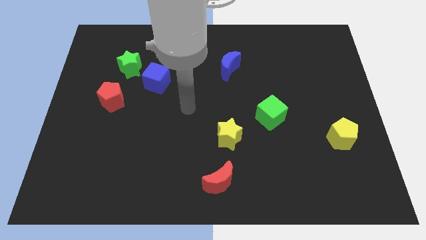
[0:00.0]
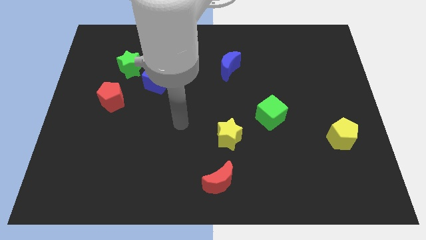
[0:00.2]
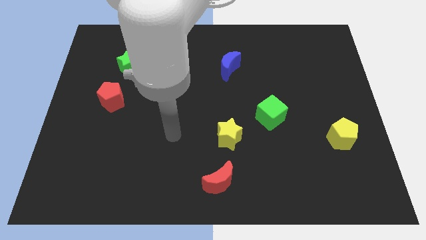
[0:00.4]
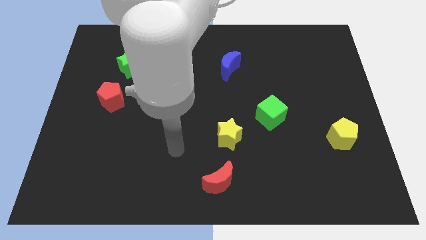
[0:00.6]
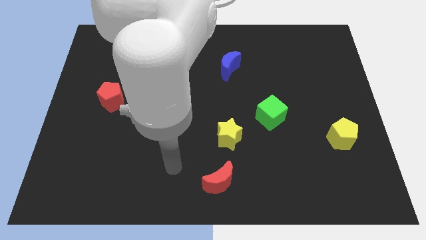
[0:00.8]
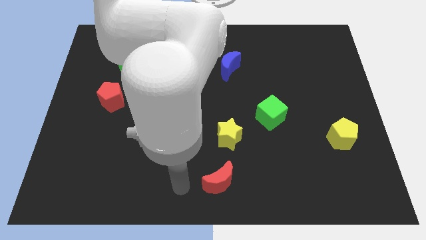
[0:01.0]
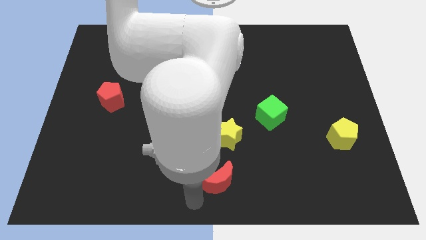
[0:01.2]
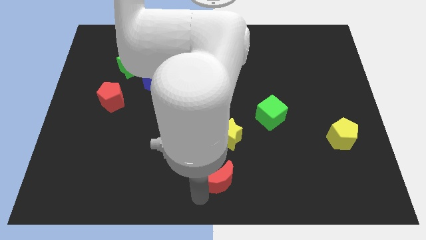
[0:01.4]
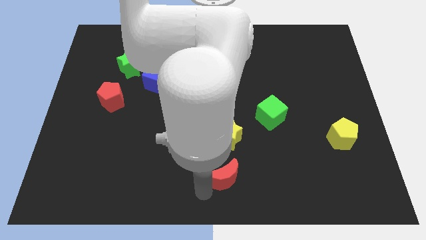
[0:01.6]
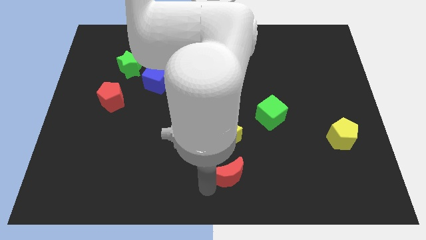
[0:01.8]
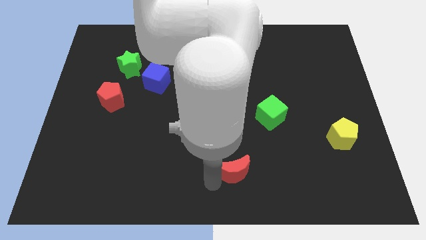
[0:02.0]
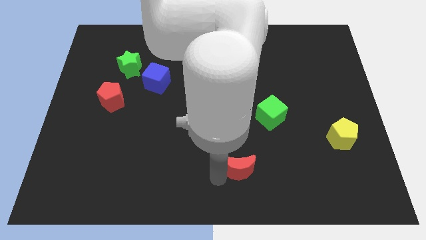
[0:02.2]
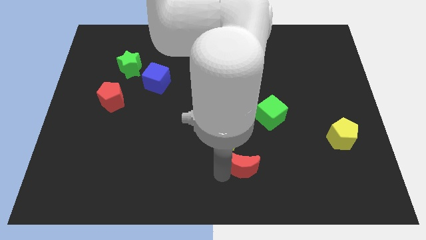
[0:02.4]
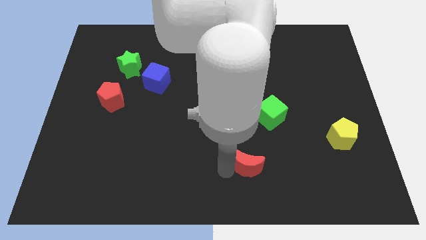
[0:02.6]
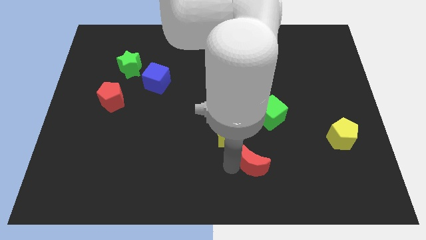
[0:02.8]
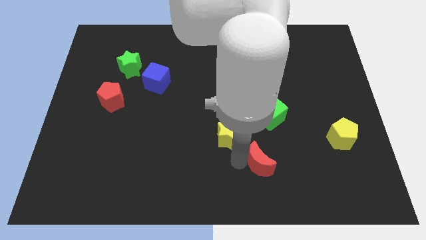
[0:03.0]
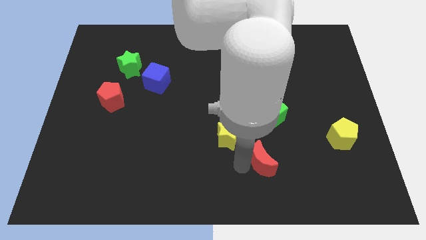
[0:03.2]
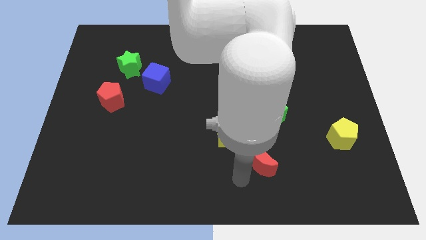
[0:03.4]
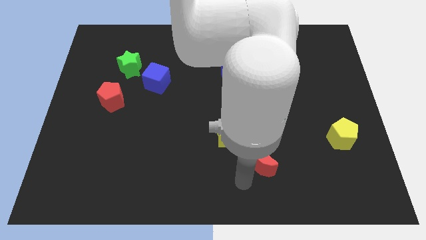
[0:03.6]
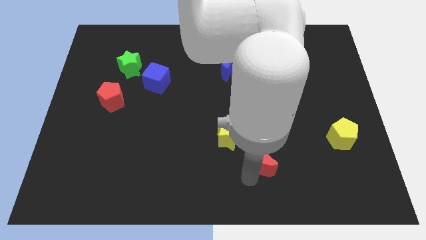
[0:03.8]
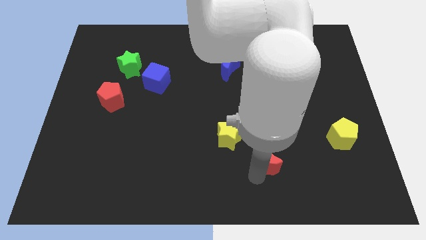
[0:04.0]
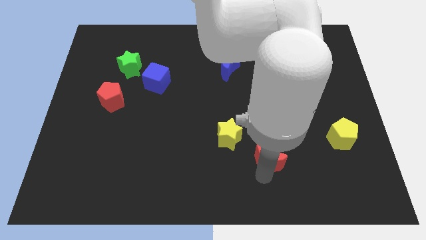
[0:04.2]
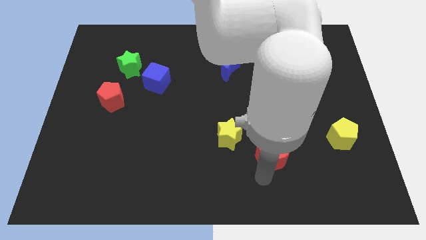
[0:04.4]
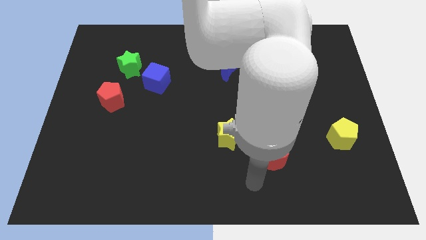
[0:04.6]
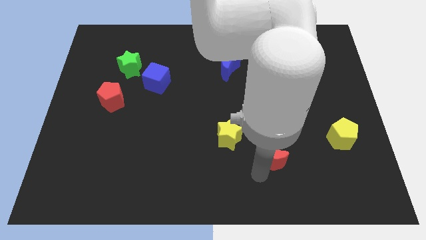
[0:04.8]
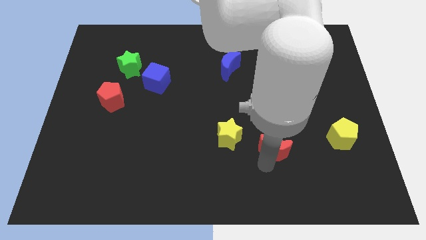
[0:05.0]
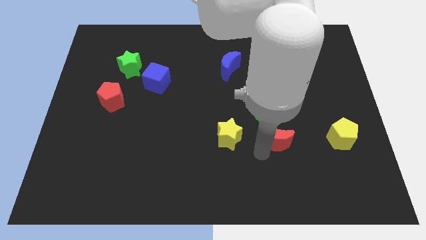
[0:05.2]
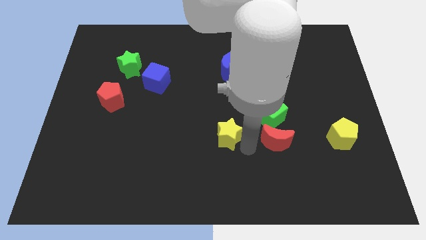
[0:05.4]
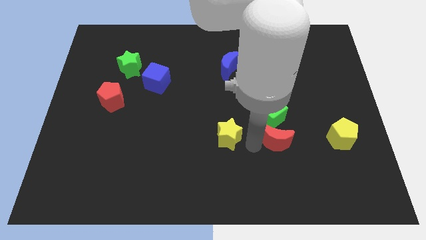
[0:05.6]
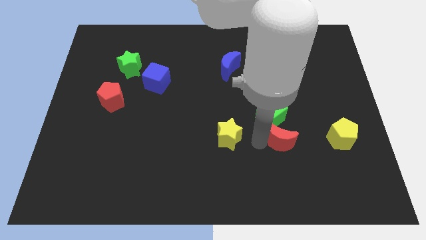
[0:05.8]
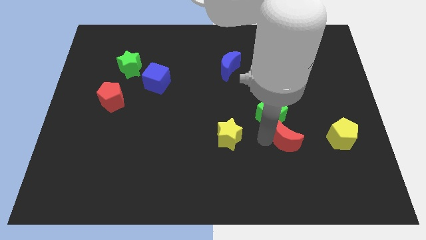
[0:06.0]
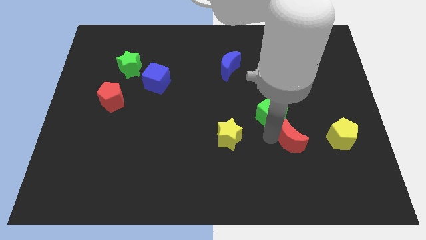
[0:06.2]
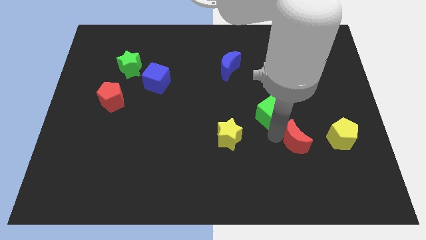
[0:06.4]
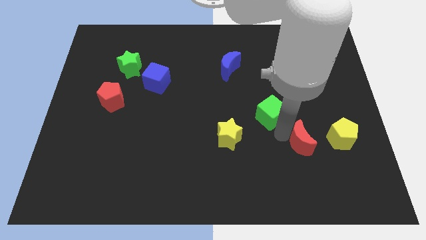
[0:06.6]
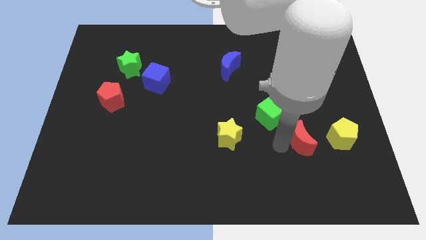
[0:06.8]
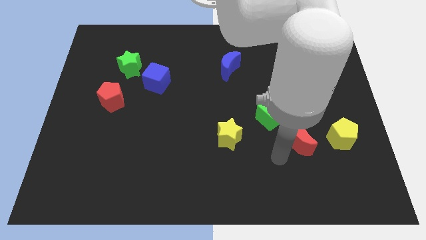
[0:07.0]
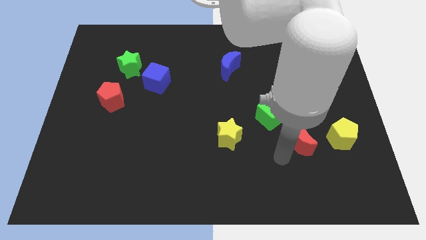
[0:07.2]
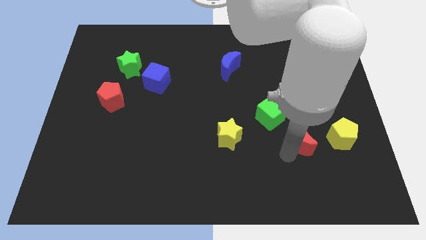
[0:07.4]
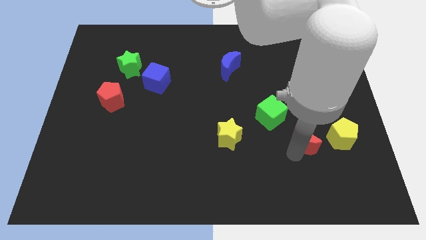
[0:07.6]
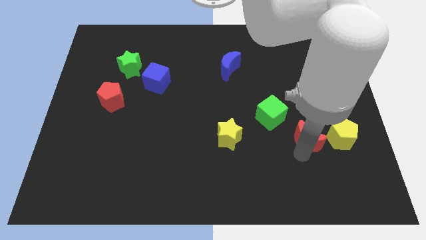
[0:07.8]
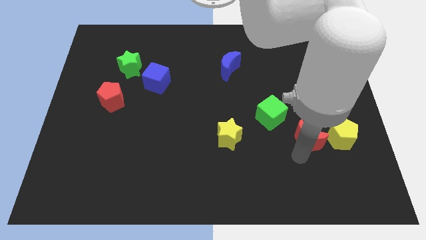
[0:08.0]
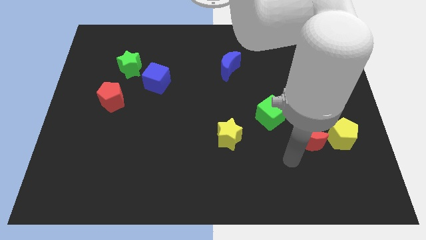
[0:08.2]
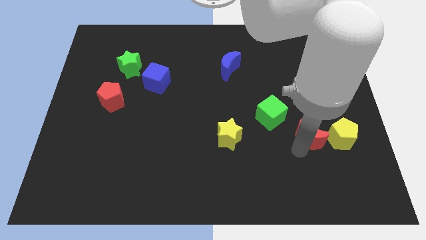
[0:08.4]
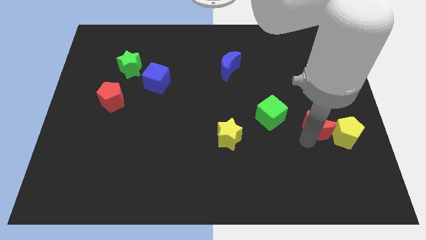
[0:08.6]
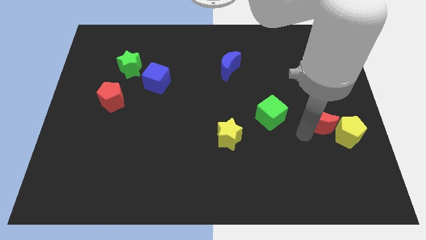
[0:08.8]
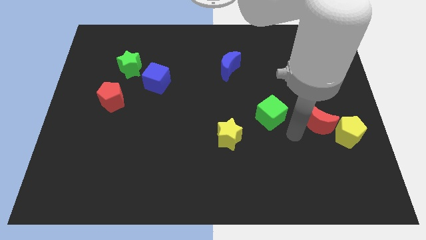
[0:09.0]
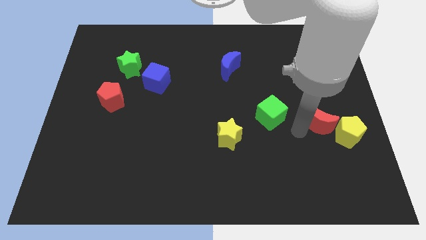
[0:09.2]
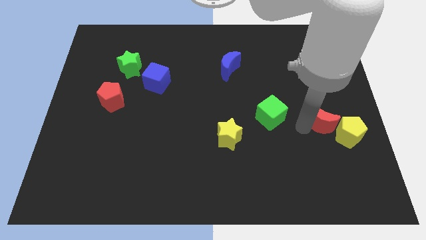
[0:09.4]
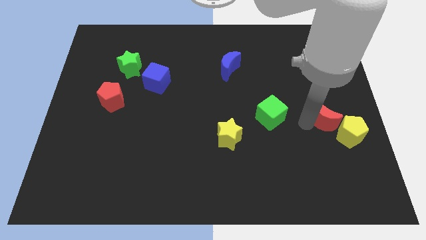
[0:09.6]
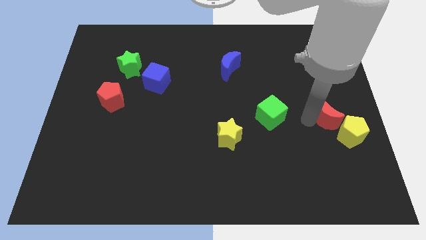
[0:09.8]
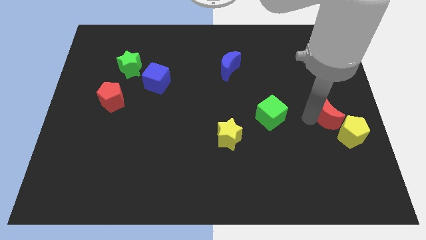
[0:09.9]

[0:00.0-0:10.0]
put the red moon to the right side

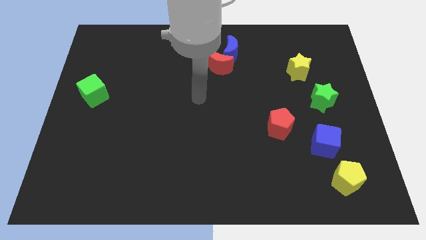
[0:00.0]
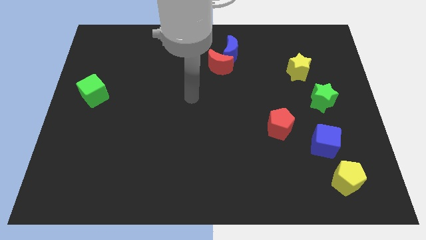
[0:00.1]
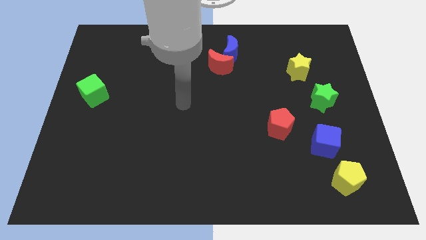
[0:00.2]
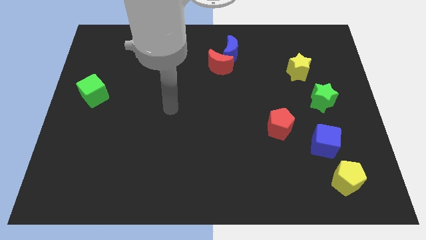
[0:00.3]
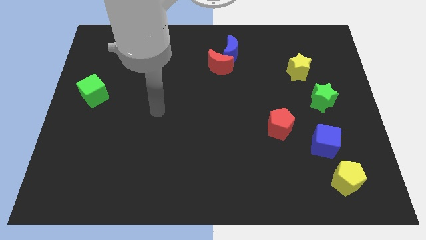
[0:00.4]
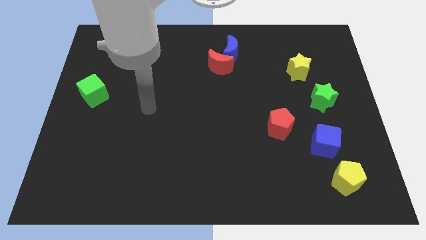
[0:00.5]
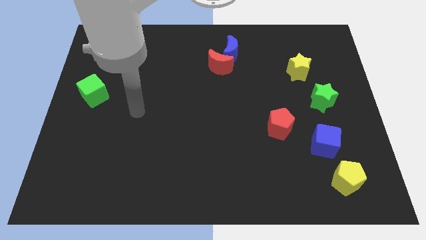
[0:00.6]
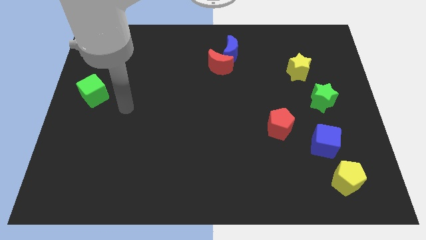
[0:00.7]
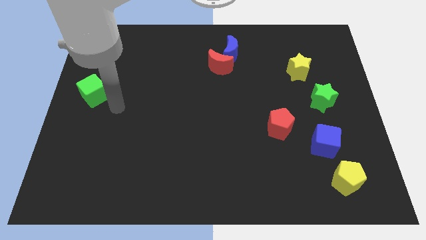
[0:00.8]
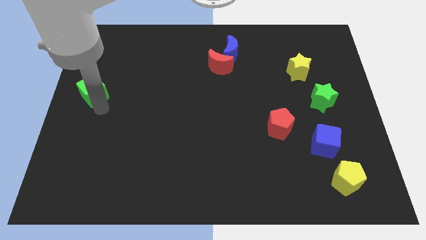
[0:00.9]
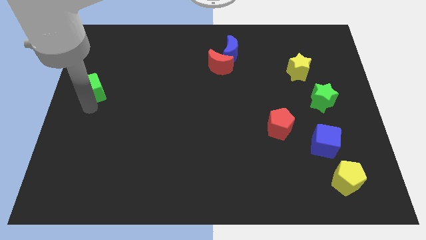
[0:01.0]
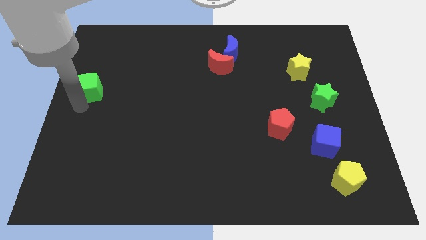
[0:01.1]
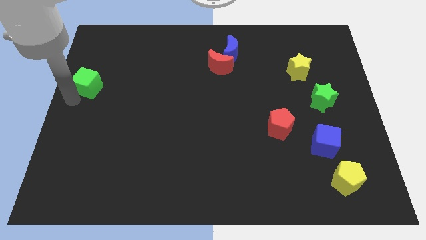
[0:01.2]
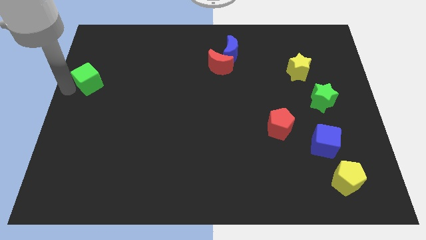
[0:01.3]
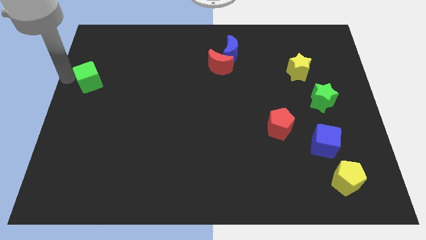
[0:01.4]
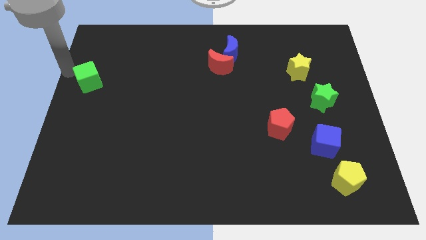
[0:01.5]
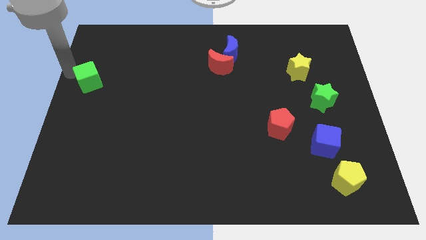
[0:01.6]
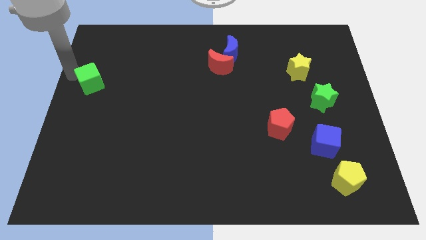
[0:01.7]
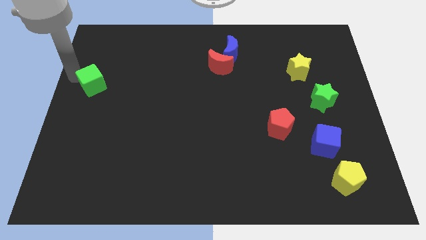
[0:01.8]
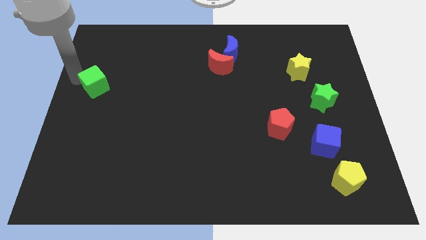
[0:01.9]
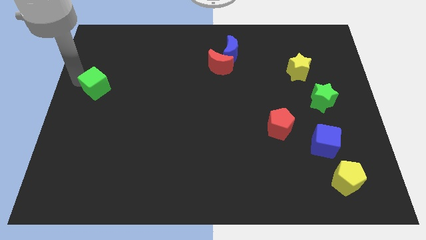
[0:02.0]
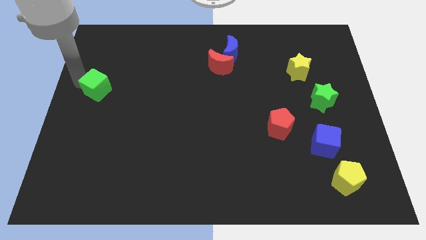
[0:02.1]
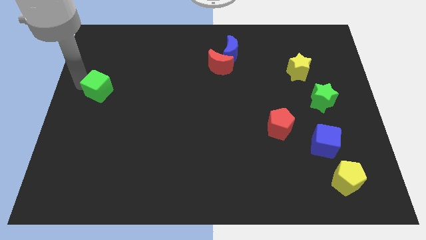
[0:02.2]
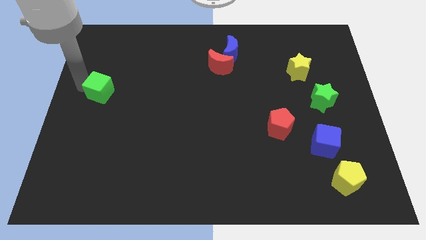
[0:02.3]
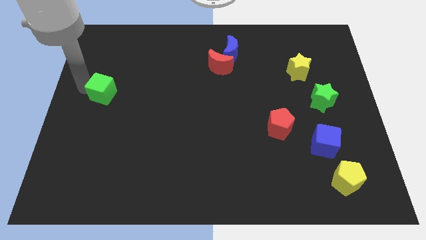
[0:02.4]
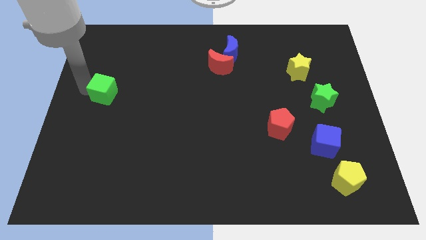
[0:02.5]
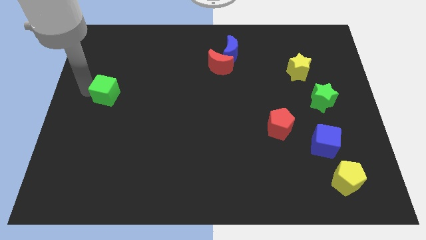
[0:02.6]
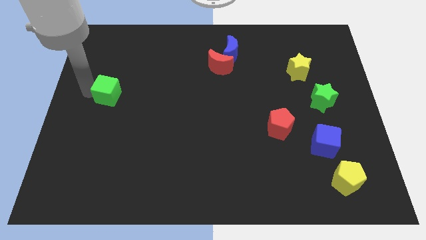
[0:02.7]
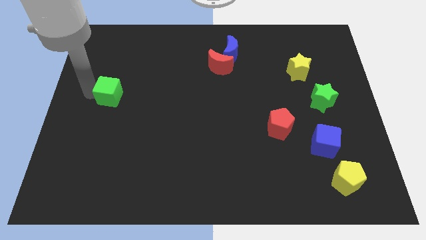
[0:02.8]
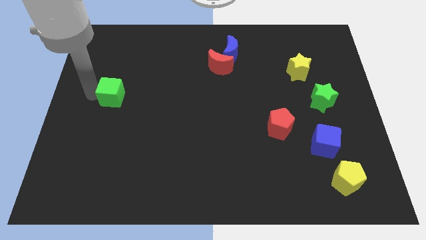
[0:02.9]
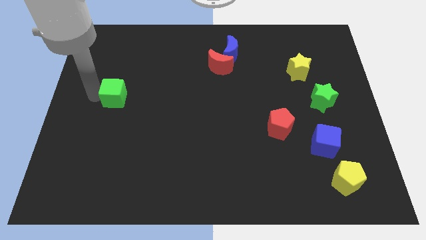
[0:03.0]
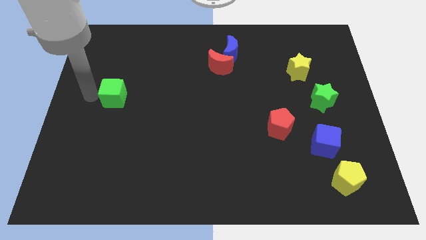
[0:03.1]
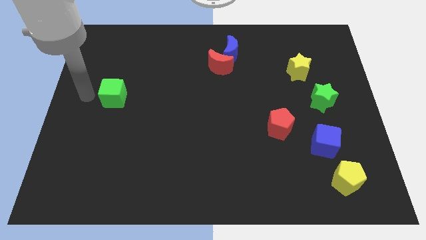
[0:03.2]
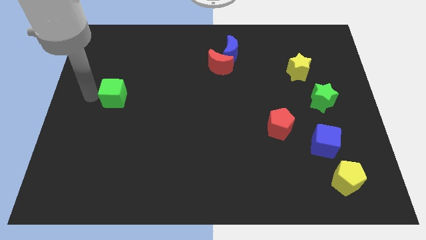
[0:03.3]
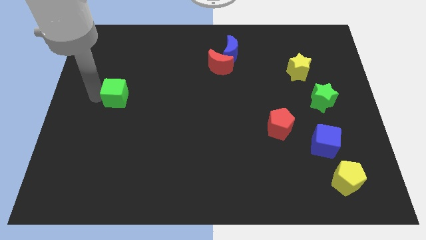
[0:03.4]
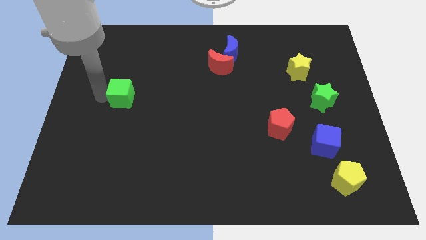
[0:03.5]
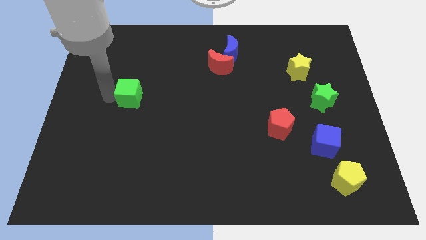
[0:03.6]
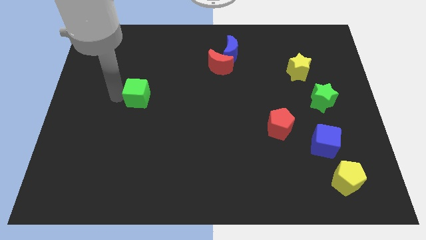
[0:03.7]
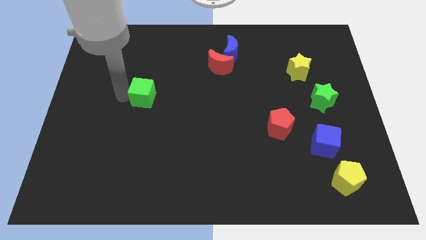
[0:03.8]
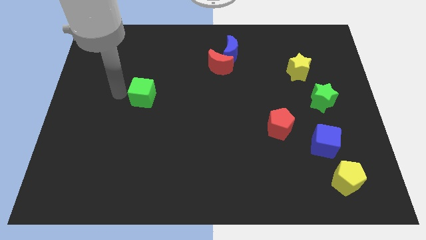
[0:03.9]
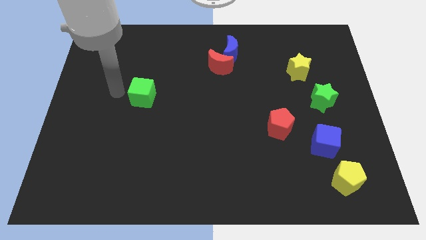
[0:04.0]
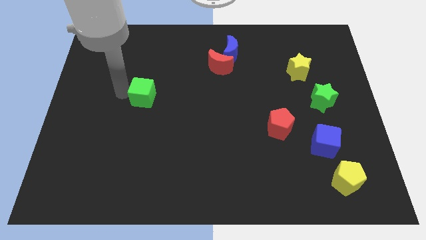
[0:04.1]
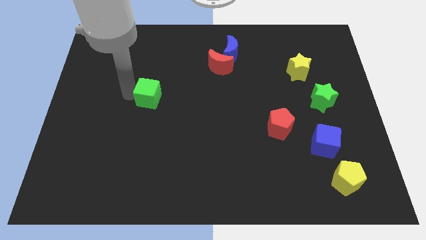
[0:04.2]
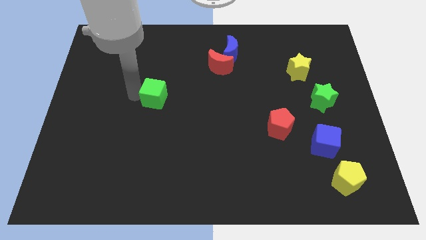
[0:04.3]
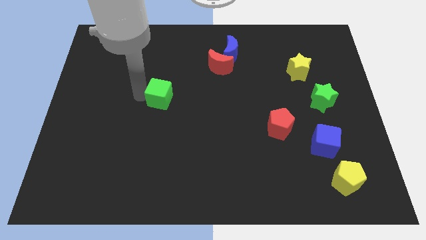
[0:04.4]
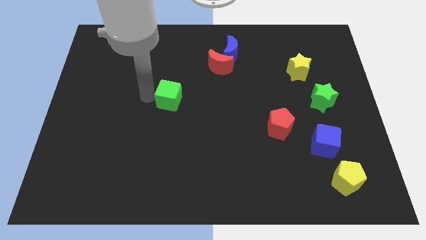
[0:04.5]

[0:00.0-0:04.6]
slide the green cube to the center of the board
